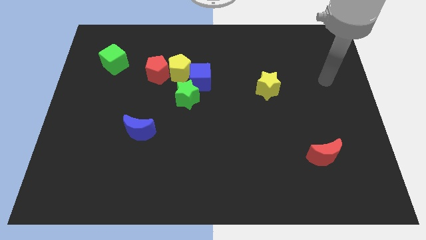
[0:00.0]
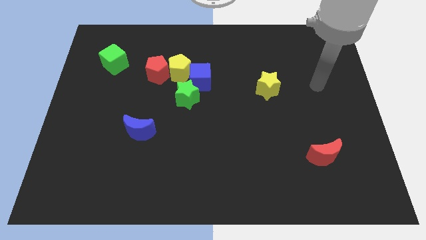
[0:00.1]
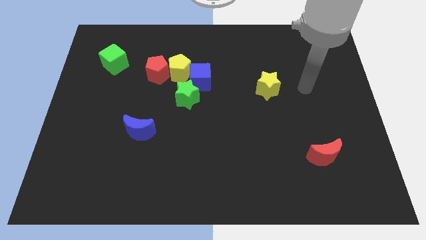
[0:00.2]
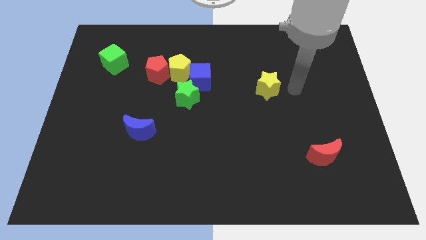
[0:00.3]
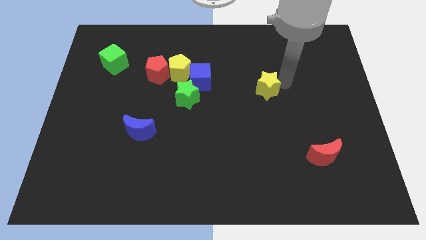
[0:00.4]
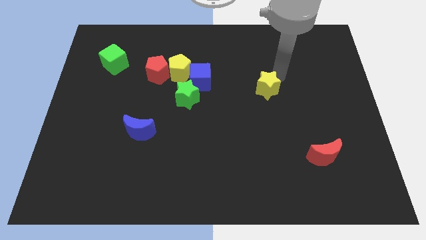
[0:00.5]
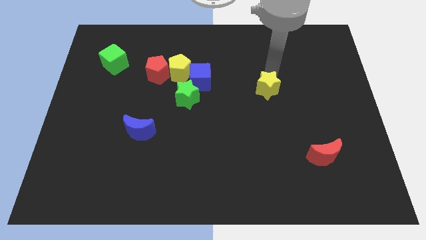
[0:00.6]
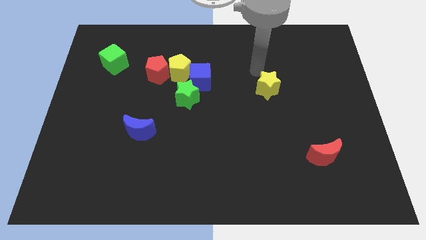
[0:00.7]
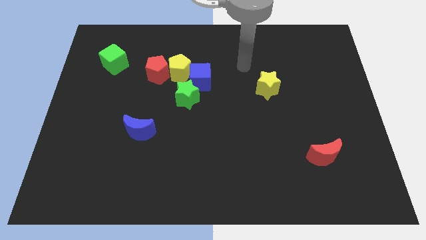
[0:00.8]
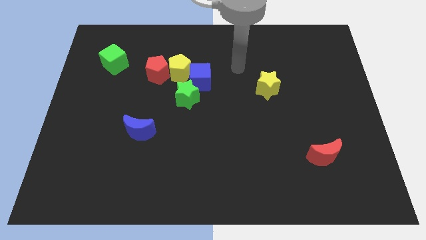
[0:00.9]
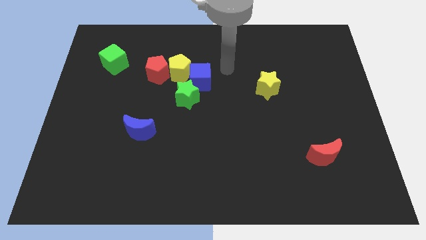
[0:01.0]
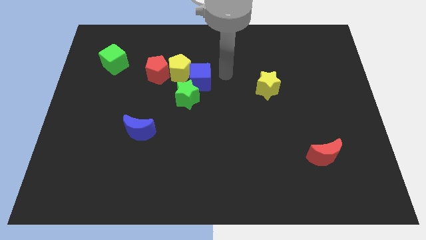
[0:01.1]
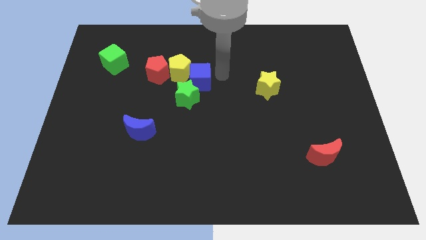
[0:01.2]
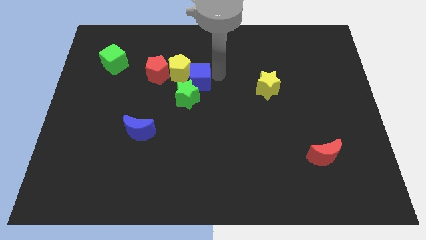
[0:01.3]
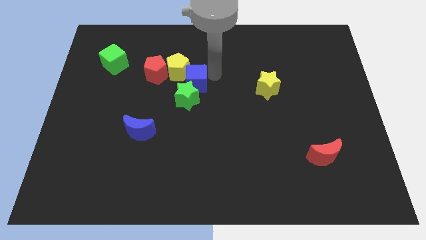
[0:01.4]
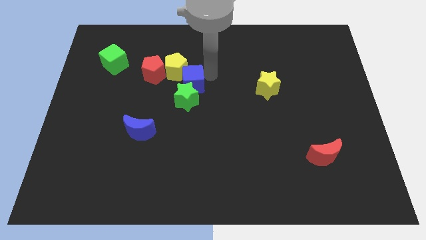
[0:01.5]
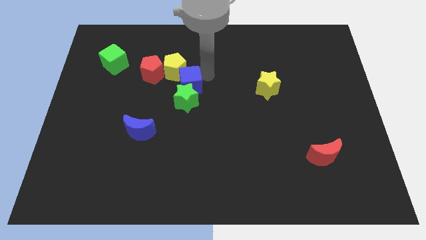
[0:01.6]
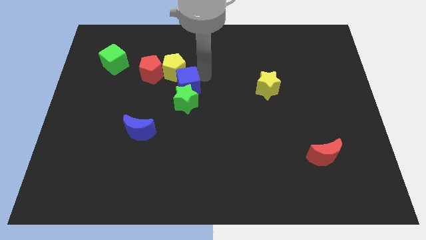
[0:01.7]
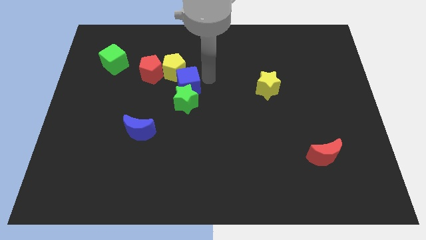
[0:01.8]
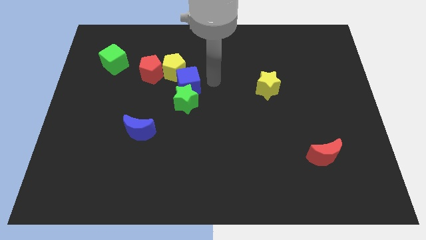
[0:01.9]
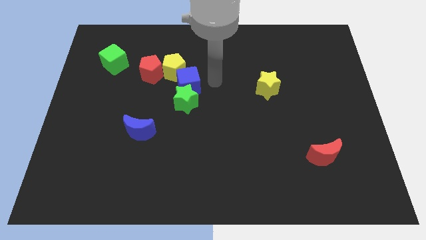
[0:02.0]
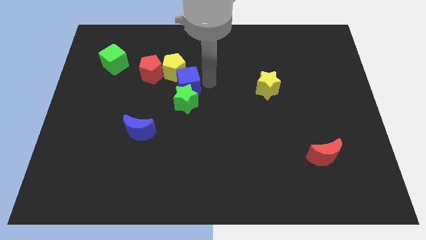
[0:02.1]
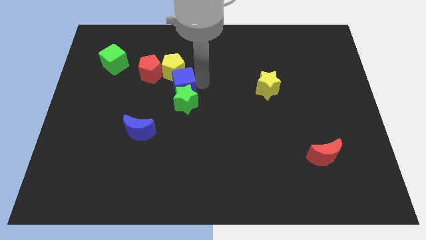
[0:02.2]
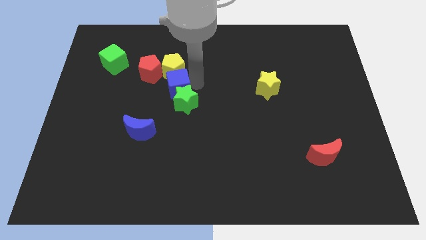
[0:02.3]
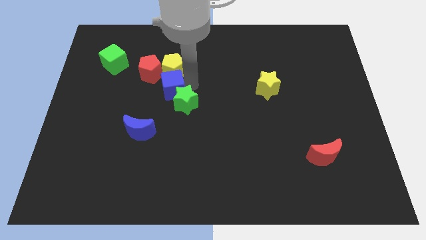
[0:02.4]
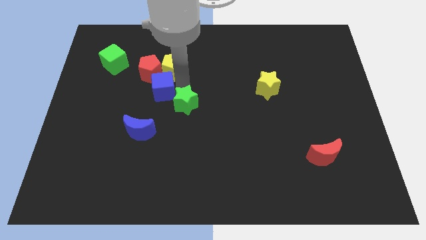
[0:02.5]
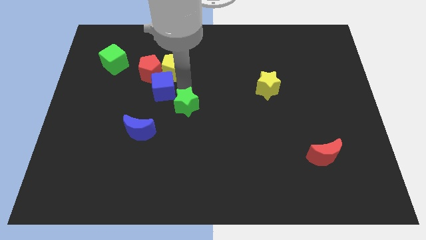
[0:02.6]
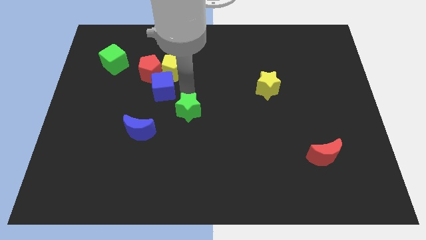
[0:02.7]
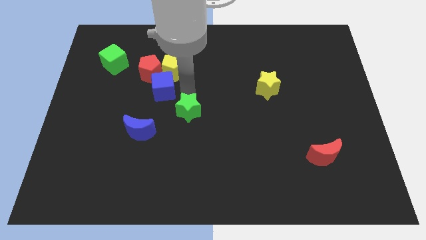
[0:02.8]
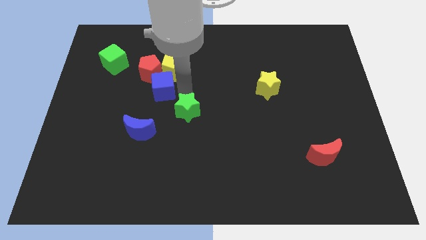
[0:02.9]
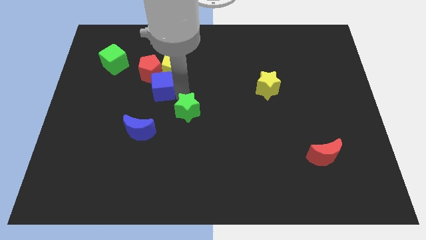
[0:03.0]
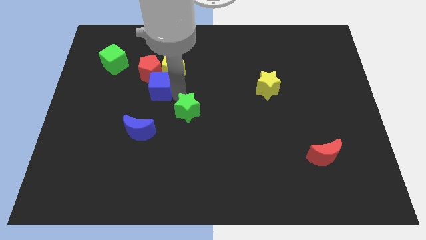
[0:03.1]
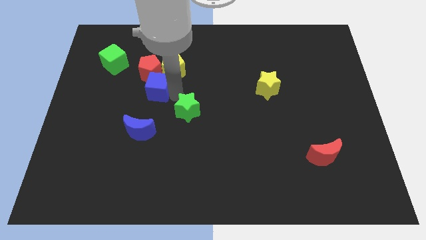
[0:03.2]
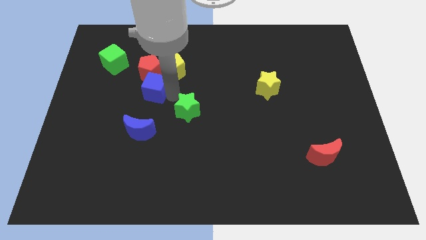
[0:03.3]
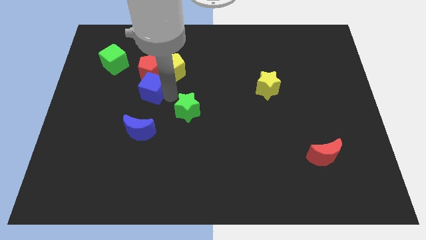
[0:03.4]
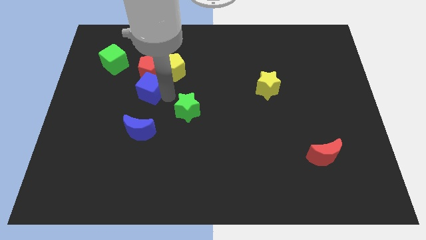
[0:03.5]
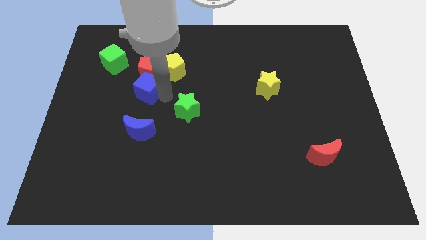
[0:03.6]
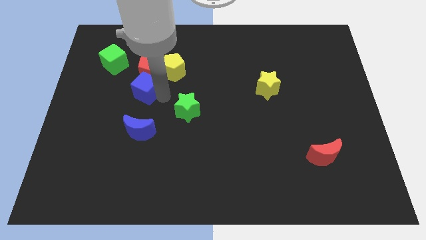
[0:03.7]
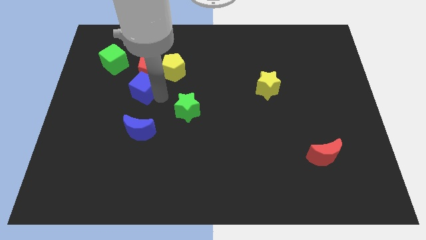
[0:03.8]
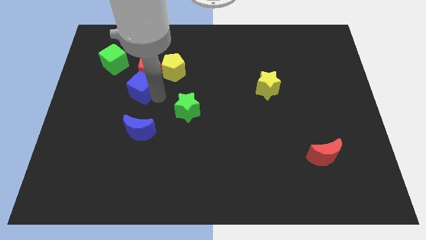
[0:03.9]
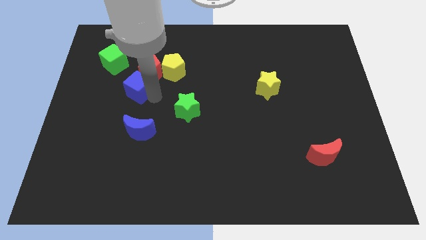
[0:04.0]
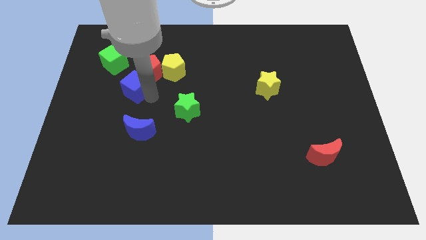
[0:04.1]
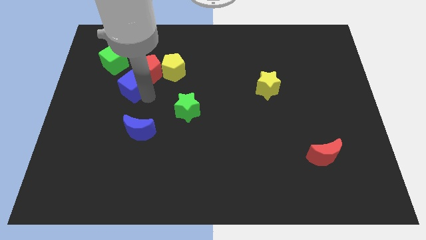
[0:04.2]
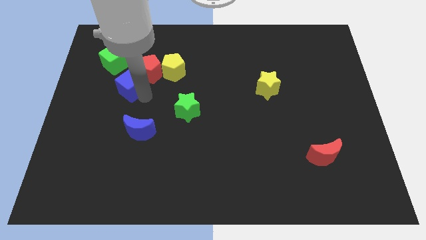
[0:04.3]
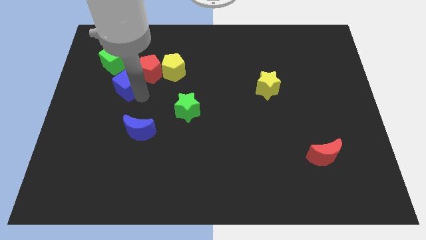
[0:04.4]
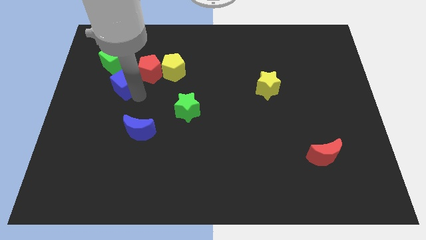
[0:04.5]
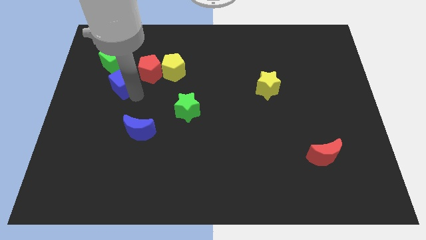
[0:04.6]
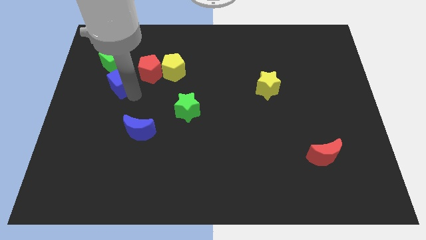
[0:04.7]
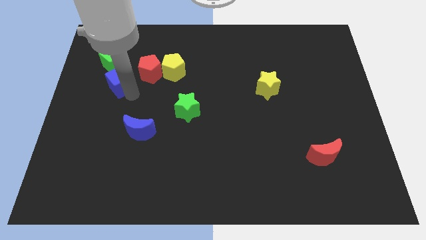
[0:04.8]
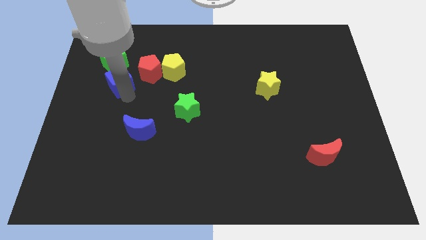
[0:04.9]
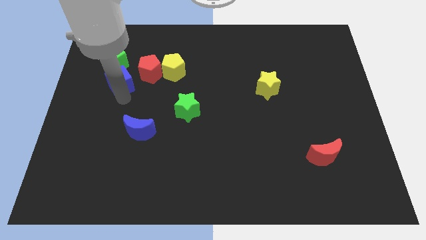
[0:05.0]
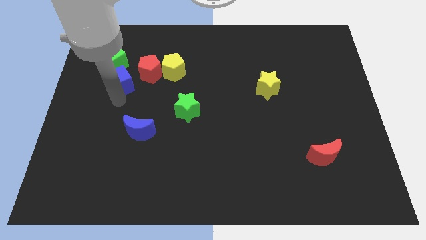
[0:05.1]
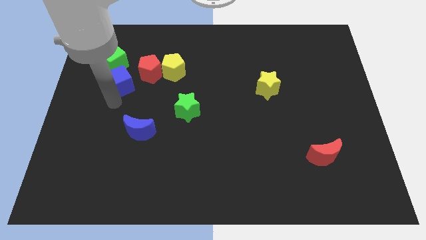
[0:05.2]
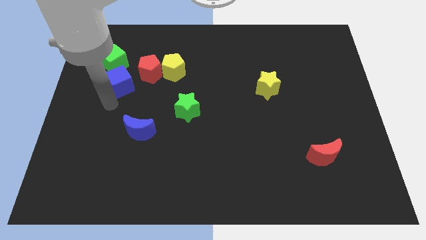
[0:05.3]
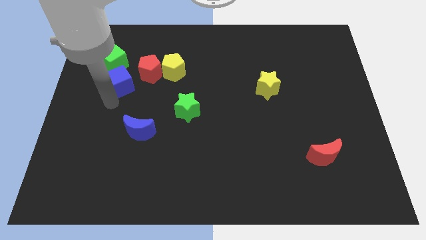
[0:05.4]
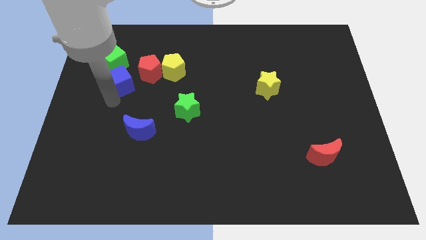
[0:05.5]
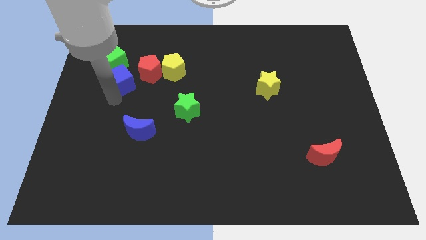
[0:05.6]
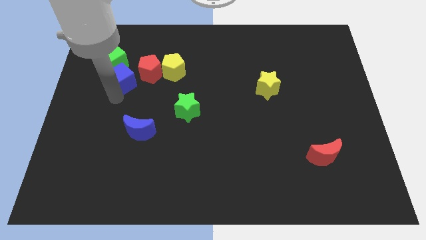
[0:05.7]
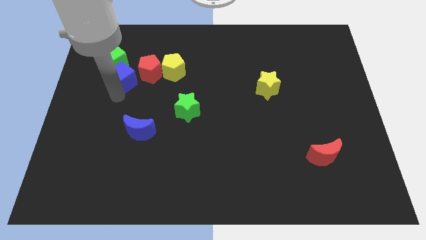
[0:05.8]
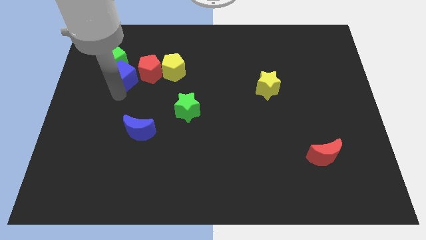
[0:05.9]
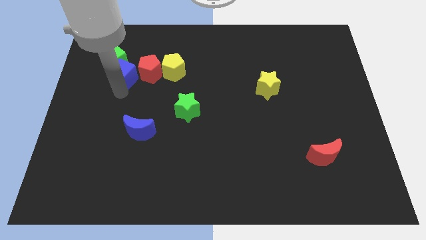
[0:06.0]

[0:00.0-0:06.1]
slide the blue cube to the green cube
